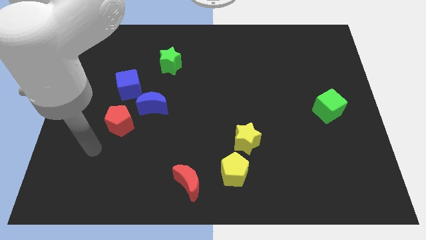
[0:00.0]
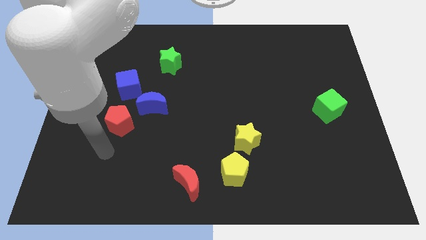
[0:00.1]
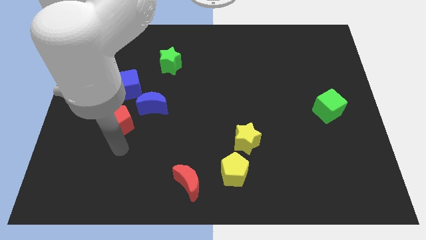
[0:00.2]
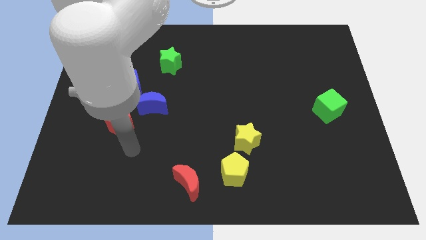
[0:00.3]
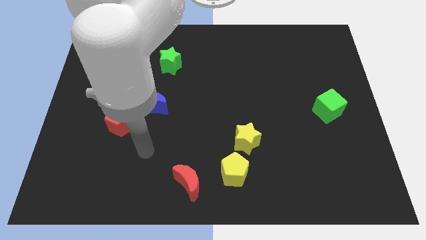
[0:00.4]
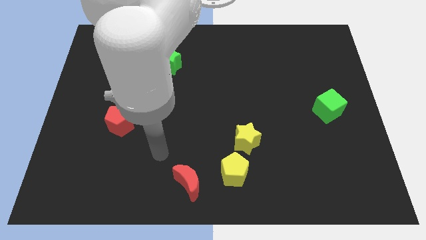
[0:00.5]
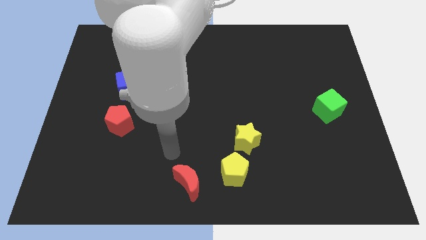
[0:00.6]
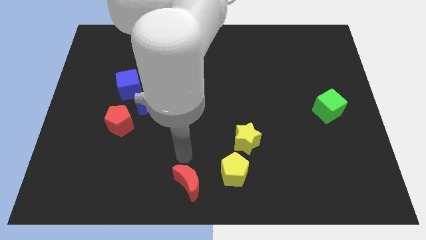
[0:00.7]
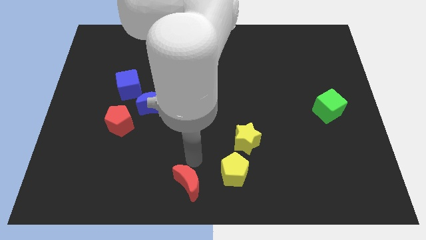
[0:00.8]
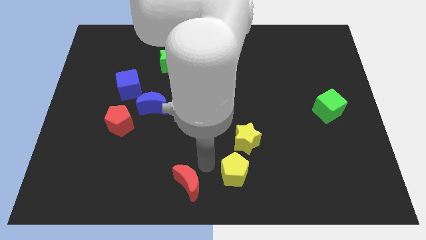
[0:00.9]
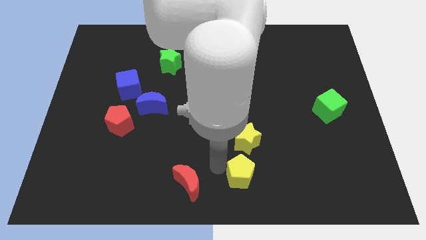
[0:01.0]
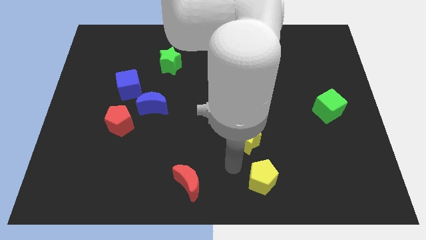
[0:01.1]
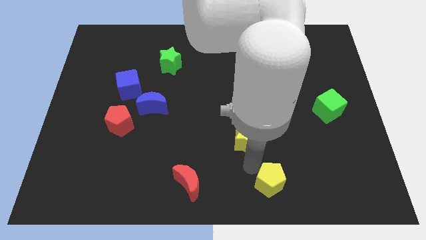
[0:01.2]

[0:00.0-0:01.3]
pull the yellow star apart from the yellow pentagon

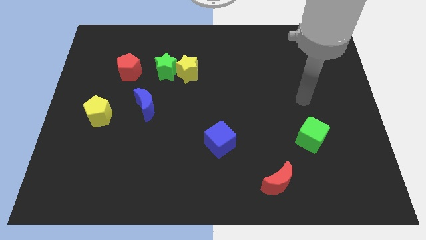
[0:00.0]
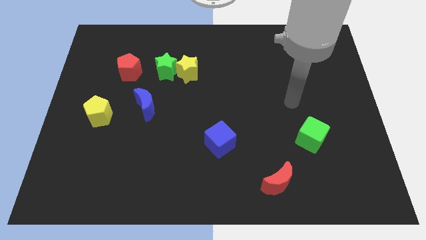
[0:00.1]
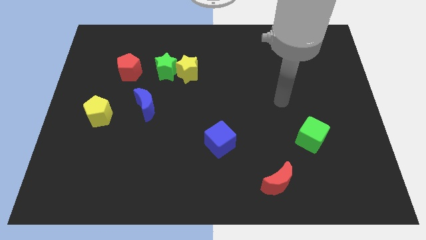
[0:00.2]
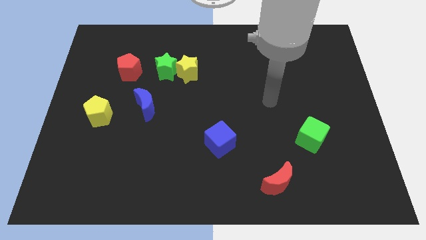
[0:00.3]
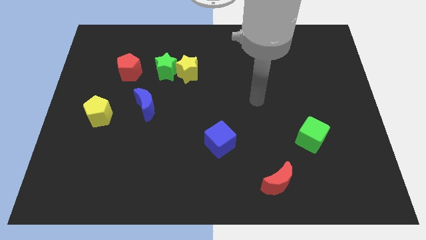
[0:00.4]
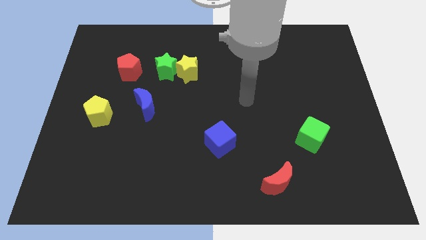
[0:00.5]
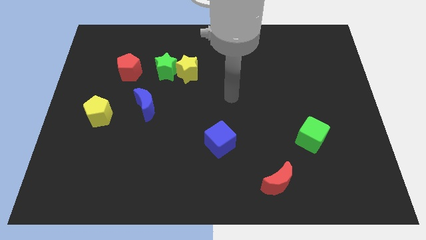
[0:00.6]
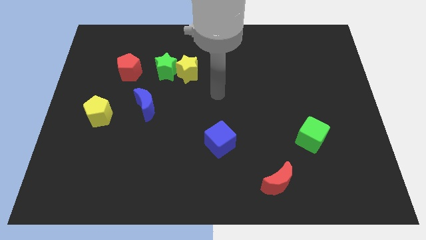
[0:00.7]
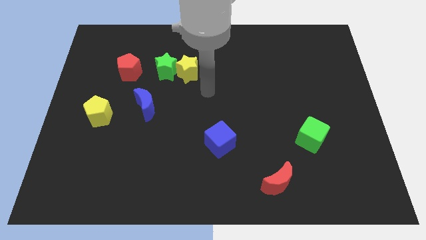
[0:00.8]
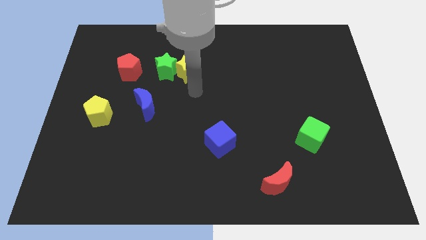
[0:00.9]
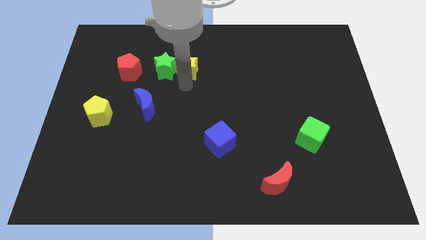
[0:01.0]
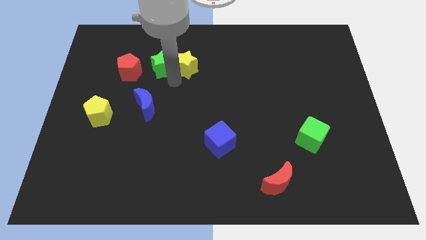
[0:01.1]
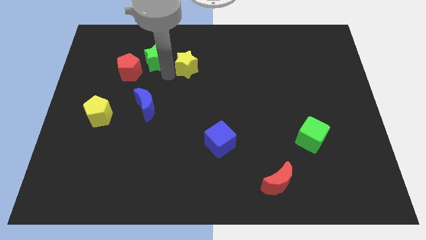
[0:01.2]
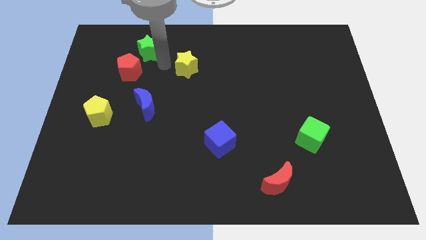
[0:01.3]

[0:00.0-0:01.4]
pull the yellow star apart from the green star

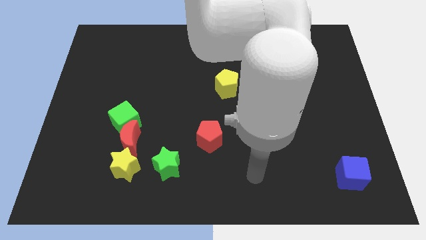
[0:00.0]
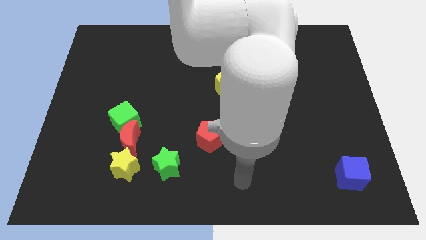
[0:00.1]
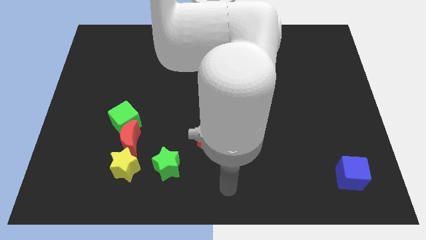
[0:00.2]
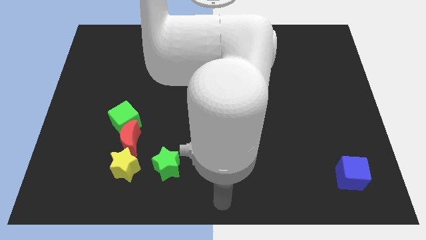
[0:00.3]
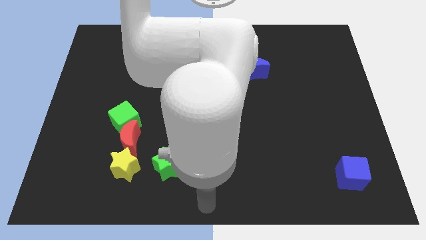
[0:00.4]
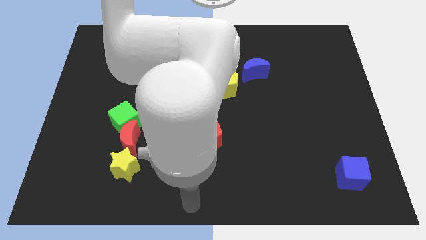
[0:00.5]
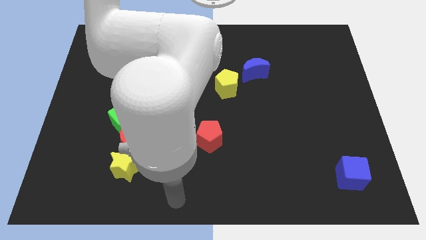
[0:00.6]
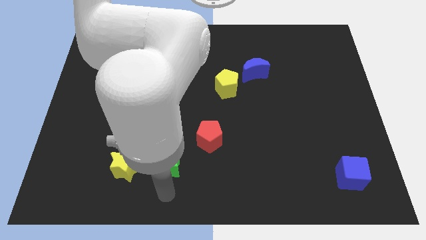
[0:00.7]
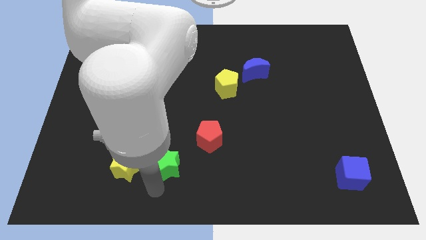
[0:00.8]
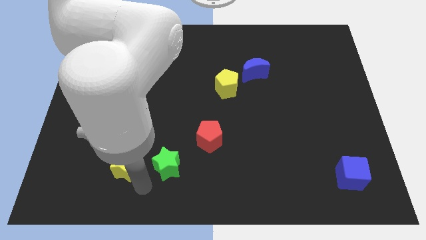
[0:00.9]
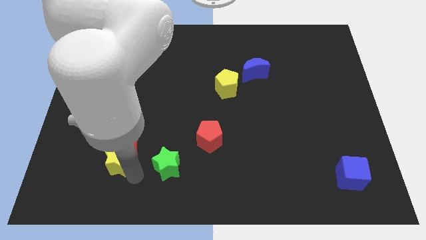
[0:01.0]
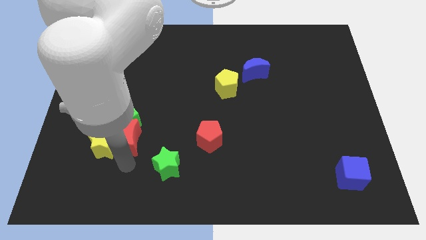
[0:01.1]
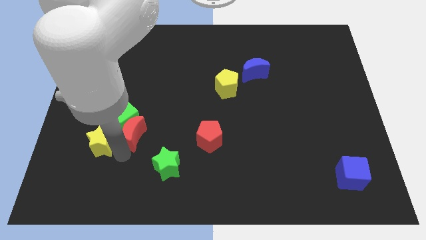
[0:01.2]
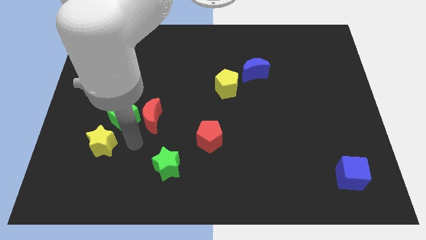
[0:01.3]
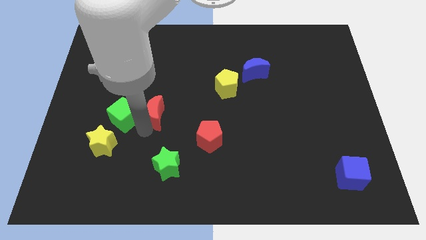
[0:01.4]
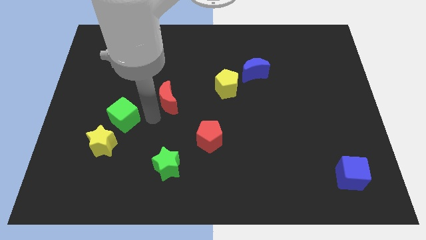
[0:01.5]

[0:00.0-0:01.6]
move the green cube away from the red moon

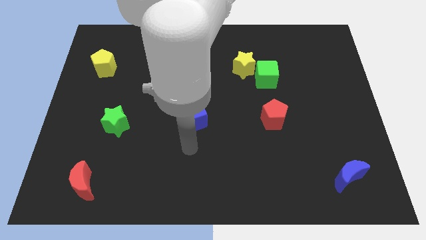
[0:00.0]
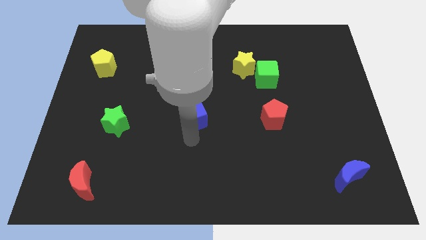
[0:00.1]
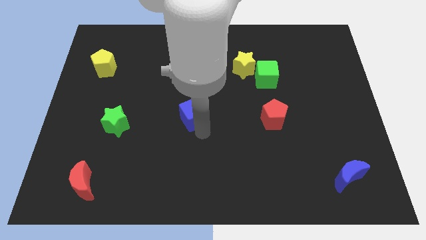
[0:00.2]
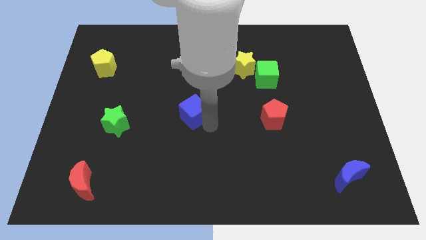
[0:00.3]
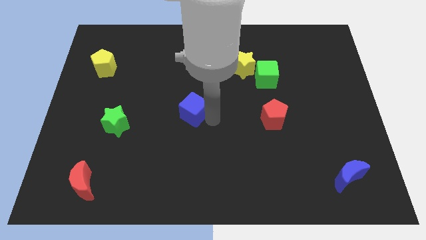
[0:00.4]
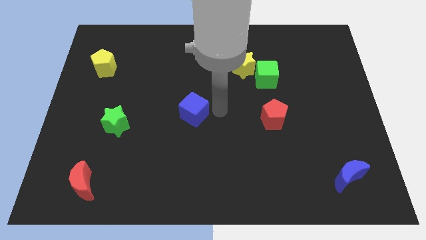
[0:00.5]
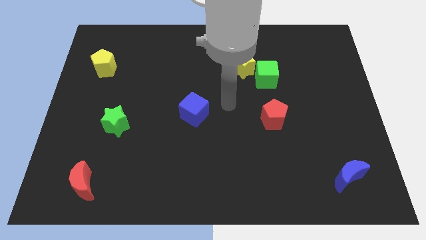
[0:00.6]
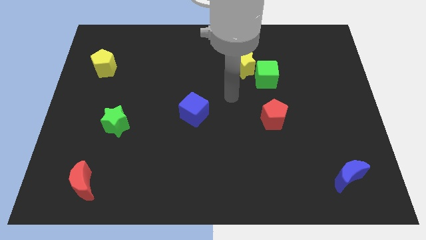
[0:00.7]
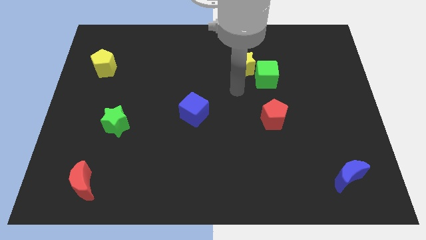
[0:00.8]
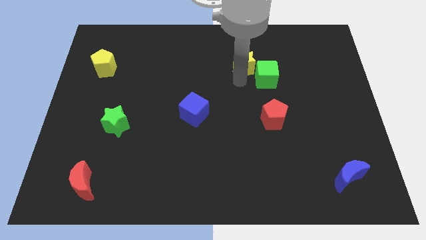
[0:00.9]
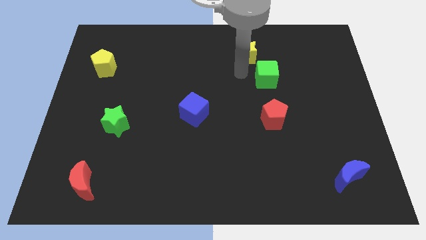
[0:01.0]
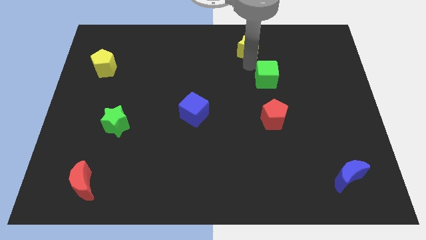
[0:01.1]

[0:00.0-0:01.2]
separate the green cube from the yellow star

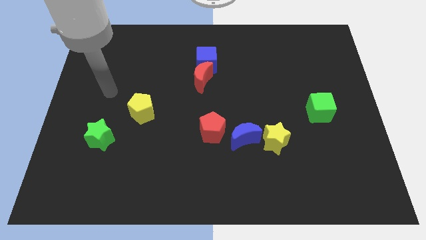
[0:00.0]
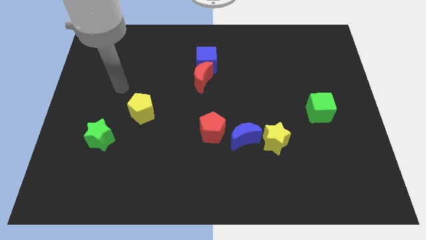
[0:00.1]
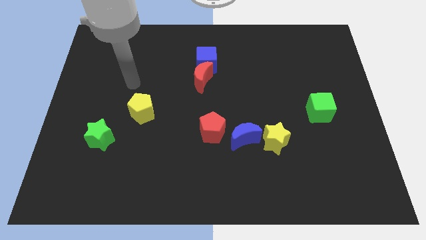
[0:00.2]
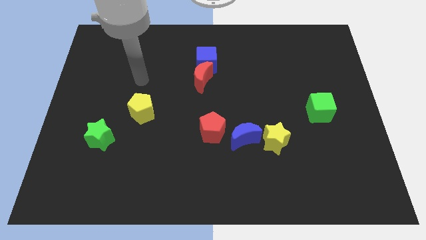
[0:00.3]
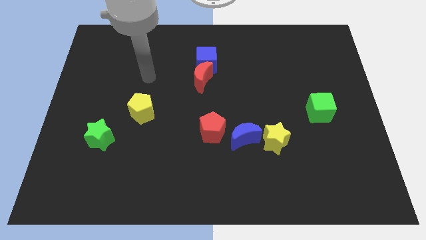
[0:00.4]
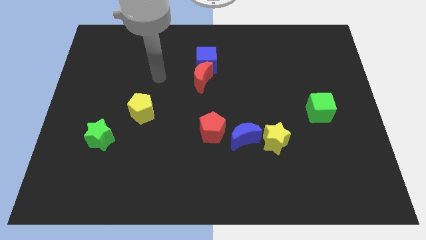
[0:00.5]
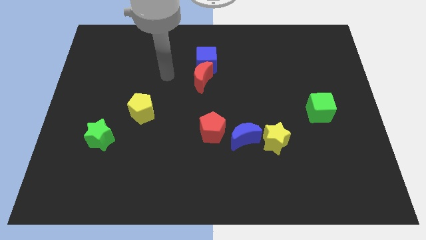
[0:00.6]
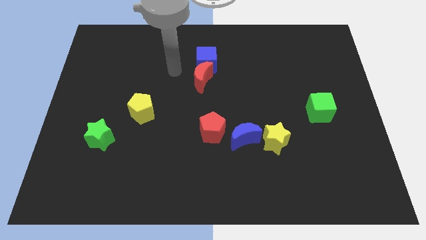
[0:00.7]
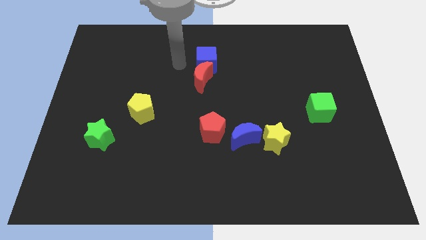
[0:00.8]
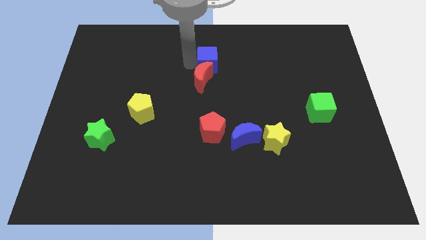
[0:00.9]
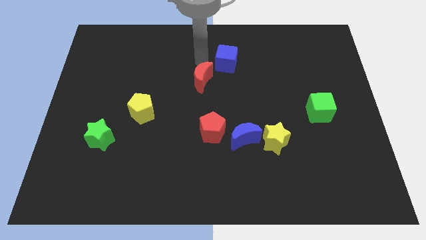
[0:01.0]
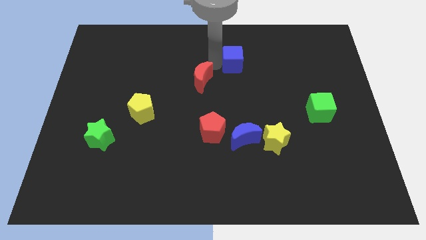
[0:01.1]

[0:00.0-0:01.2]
move the red moon away from the blue cube

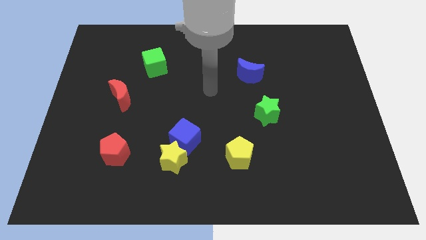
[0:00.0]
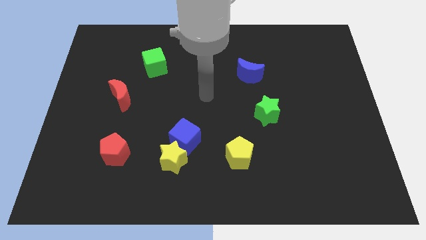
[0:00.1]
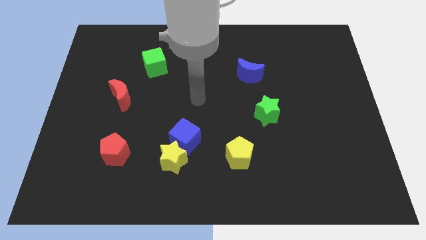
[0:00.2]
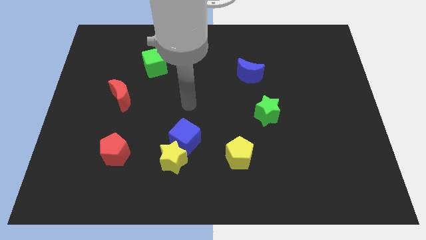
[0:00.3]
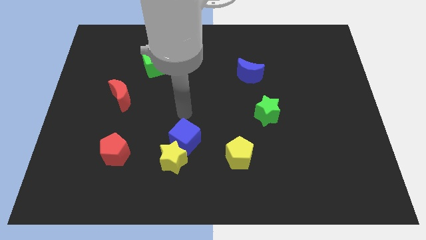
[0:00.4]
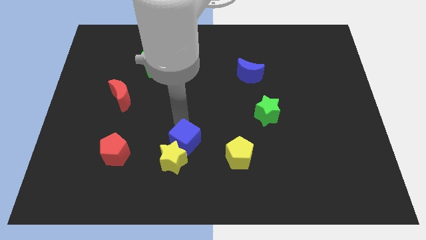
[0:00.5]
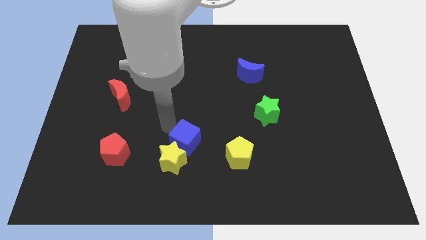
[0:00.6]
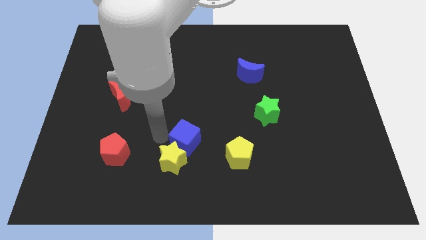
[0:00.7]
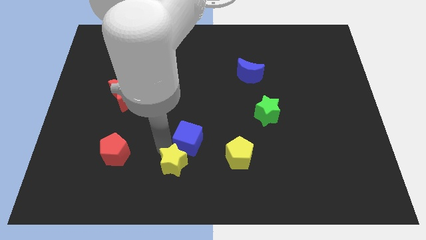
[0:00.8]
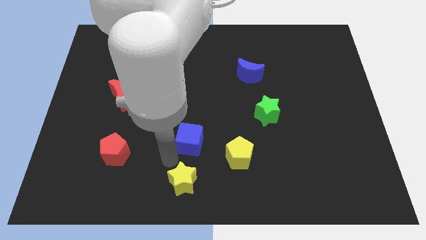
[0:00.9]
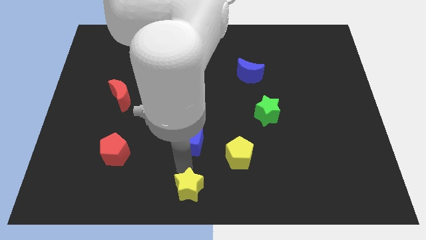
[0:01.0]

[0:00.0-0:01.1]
pull the blue cube apart from the yellow star

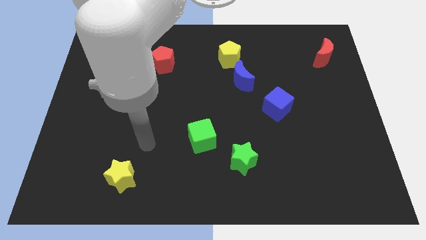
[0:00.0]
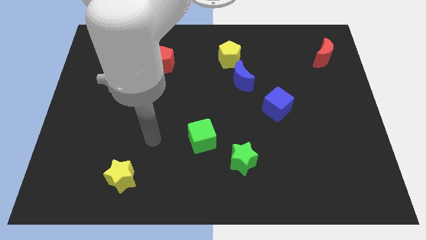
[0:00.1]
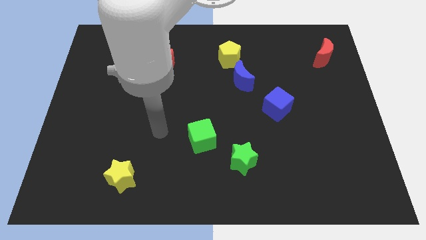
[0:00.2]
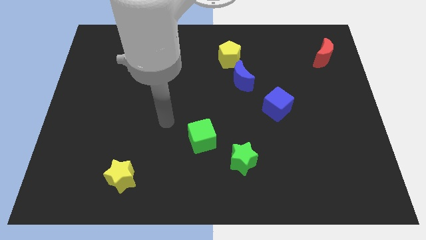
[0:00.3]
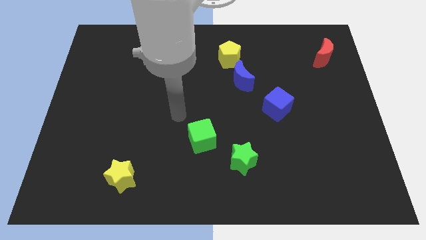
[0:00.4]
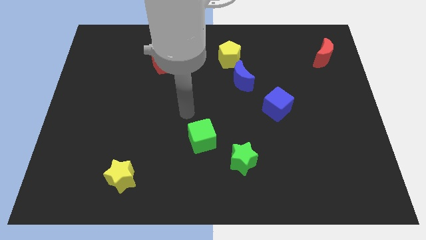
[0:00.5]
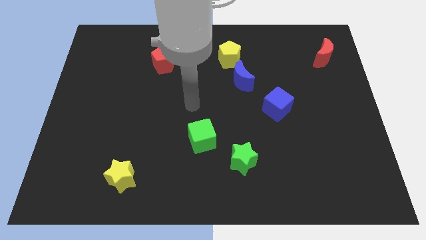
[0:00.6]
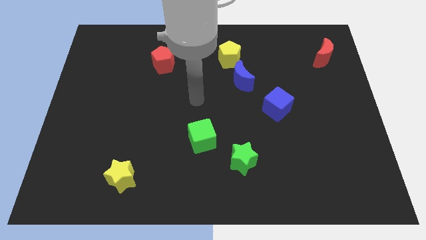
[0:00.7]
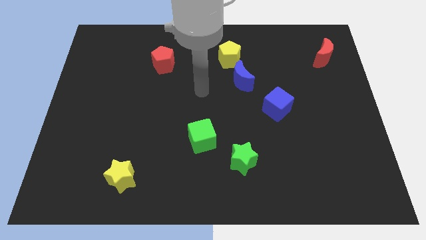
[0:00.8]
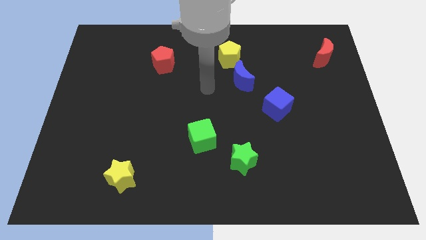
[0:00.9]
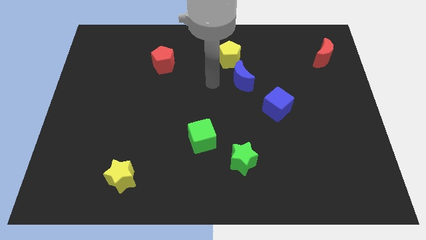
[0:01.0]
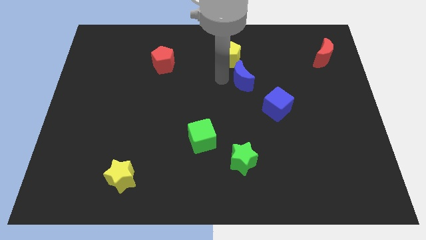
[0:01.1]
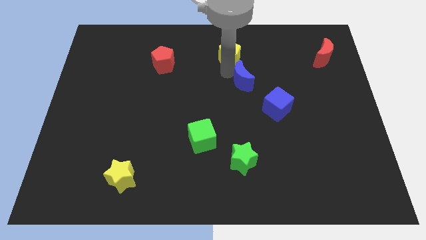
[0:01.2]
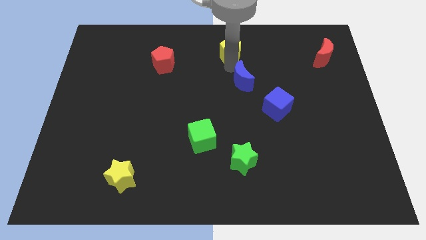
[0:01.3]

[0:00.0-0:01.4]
separate the blue moon from the yellow pentagon
